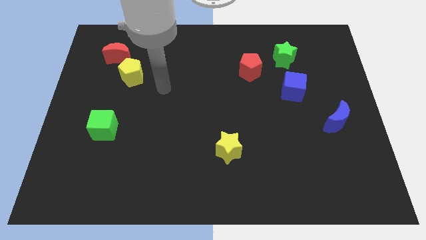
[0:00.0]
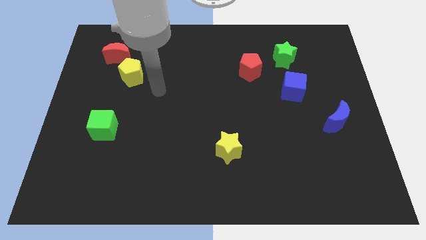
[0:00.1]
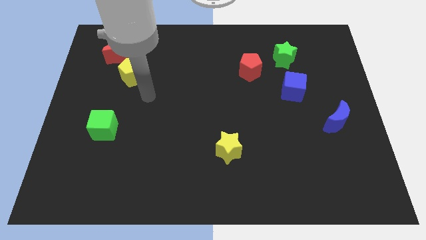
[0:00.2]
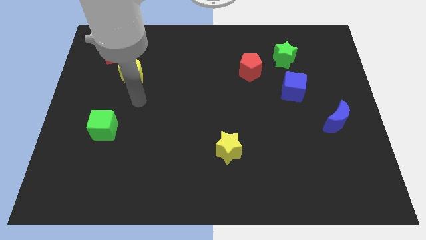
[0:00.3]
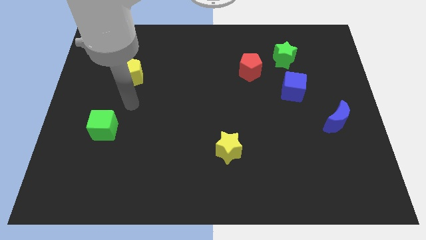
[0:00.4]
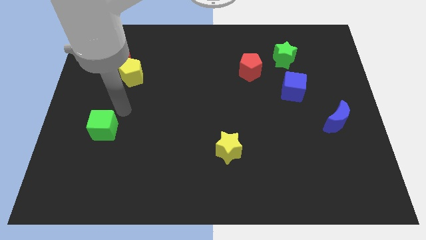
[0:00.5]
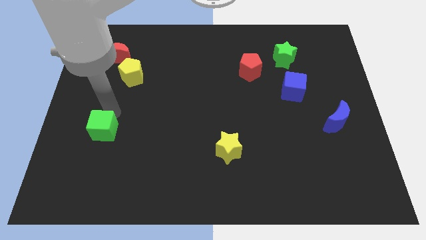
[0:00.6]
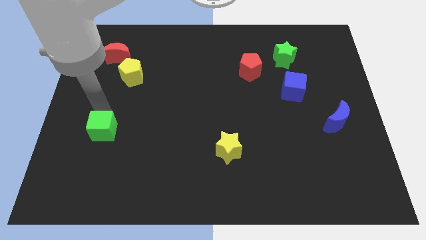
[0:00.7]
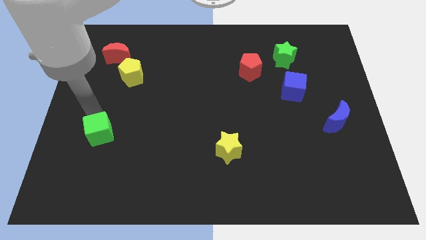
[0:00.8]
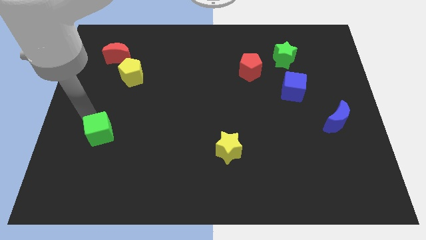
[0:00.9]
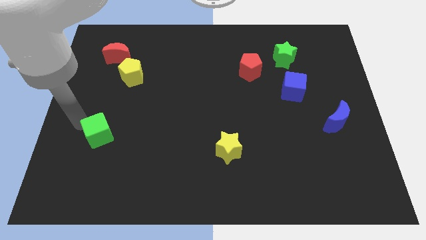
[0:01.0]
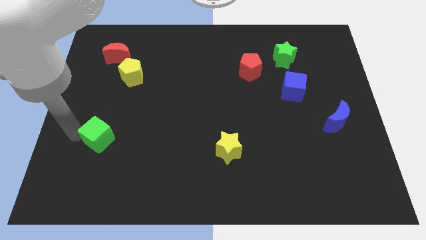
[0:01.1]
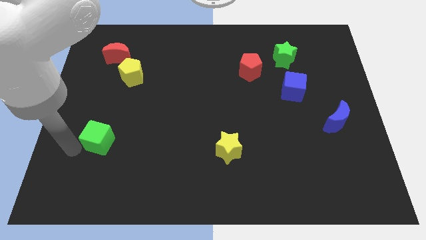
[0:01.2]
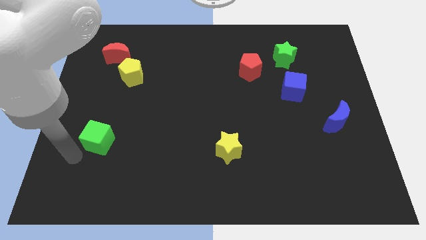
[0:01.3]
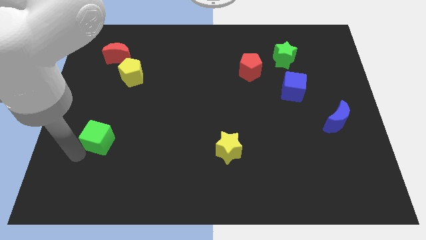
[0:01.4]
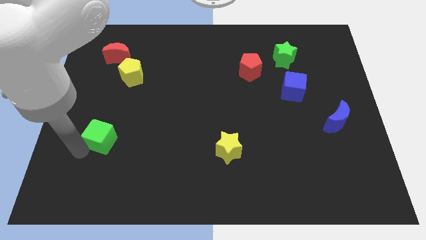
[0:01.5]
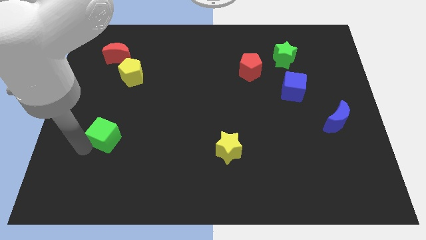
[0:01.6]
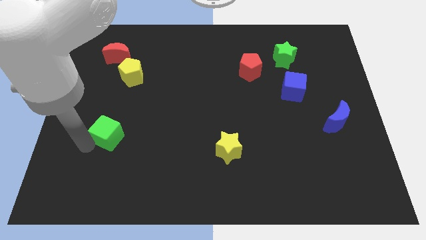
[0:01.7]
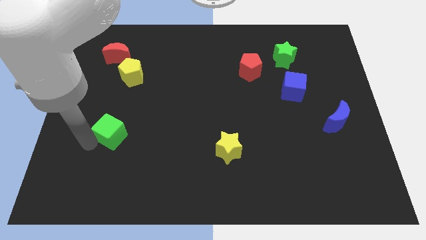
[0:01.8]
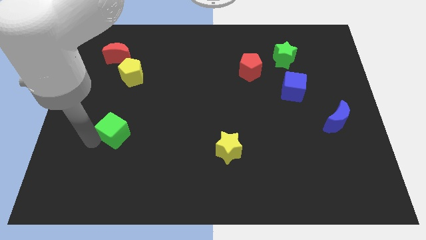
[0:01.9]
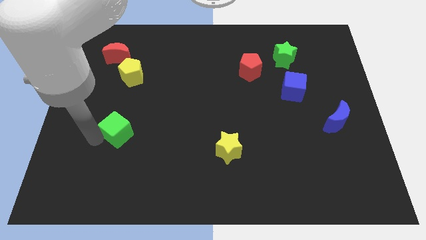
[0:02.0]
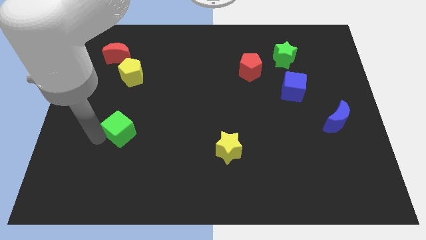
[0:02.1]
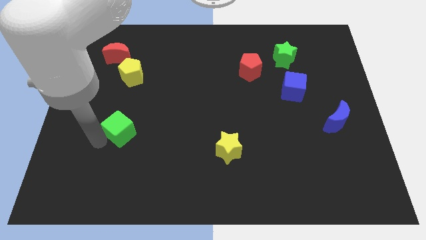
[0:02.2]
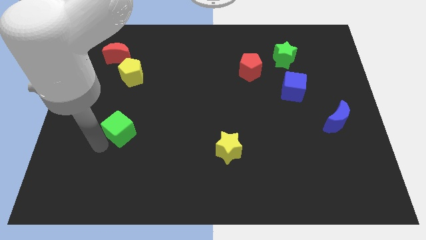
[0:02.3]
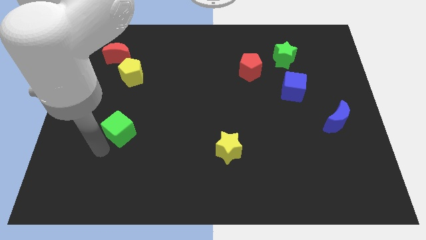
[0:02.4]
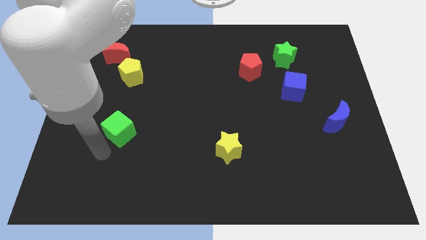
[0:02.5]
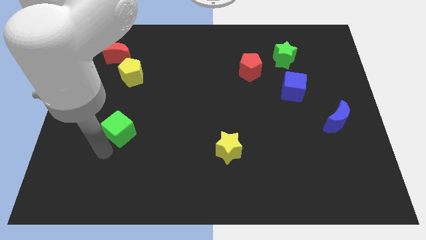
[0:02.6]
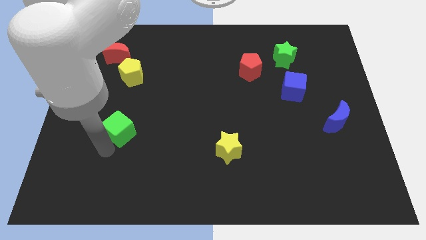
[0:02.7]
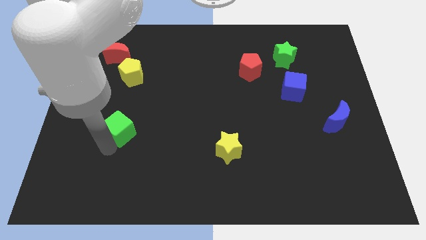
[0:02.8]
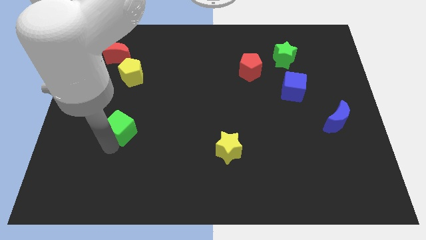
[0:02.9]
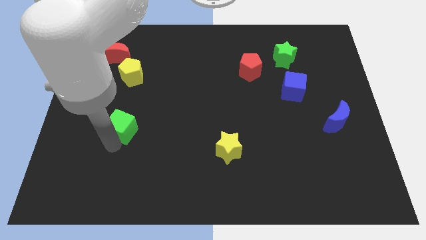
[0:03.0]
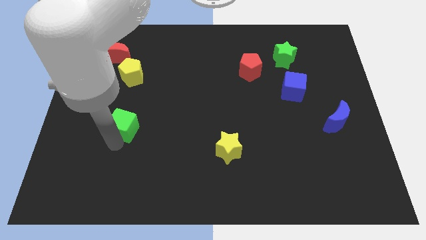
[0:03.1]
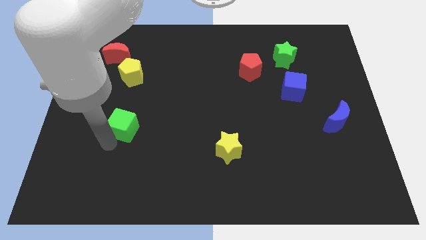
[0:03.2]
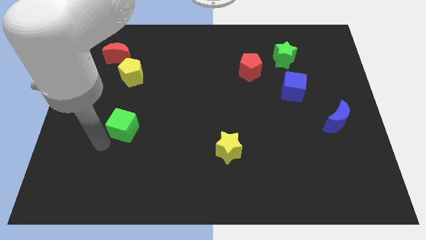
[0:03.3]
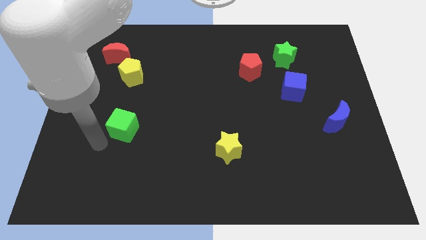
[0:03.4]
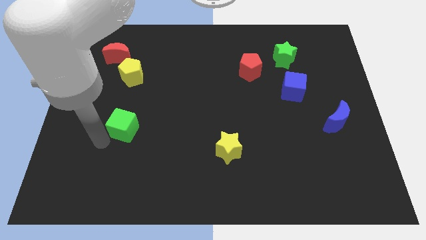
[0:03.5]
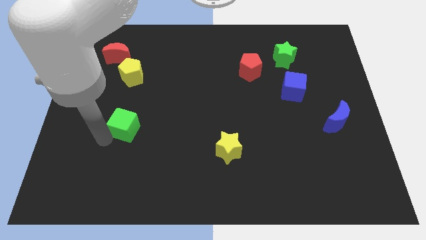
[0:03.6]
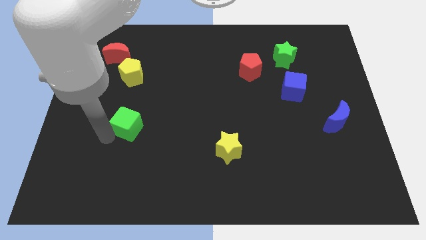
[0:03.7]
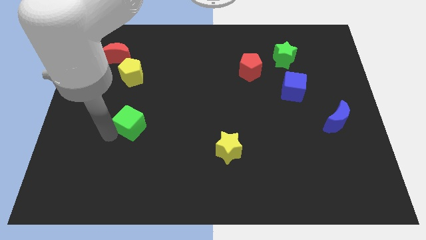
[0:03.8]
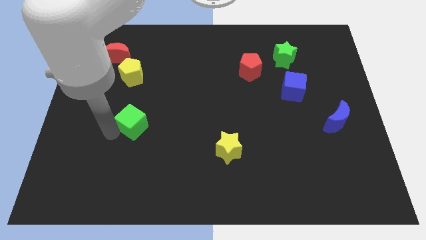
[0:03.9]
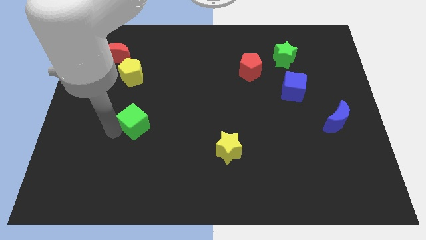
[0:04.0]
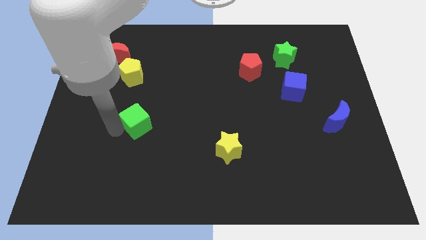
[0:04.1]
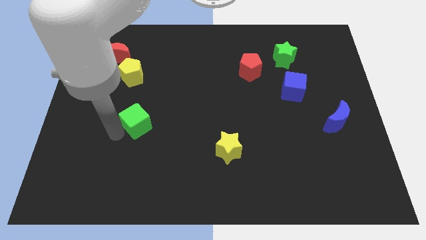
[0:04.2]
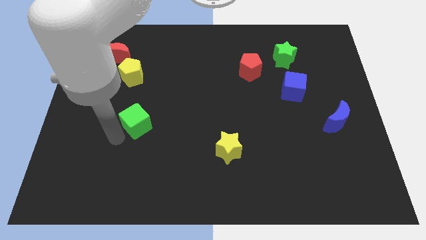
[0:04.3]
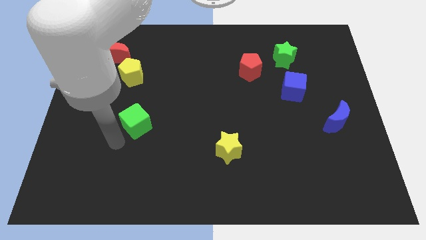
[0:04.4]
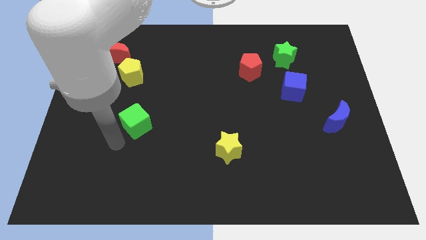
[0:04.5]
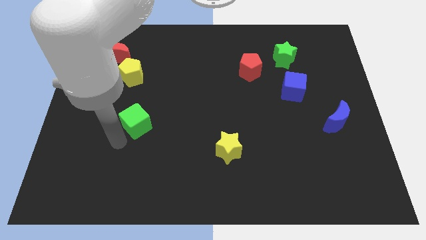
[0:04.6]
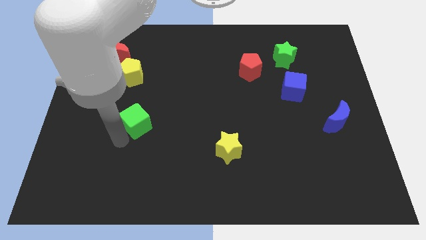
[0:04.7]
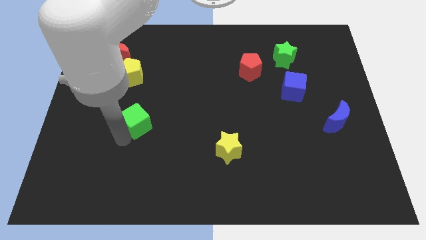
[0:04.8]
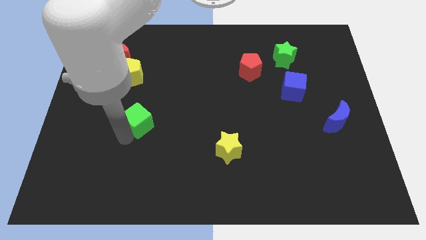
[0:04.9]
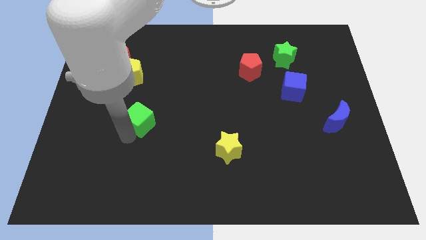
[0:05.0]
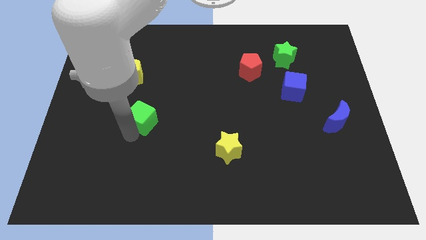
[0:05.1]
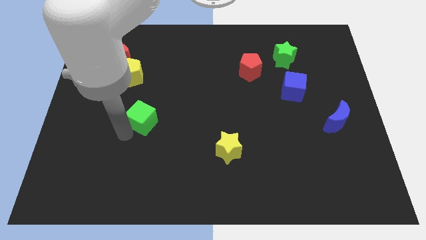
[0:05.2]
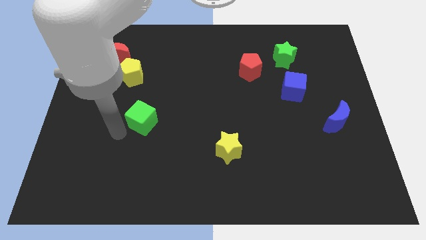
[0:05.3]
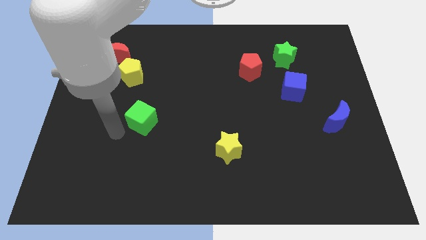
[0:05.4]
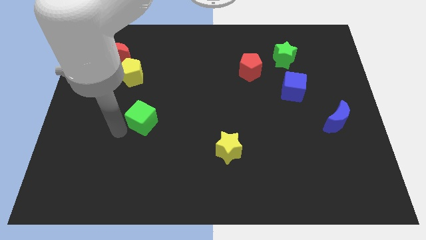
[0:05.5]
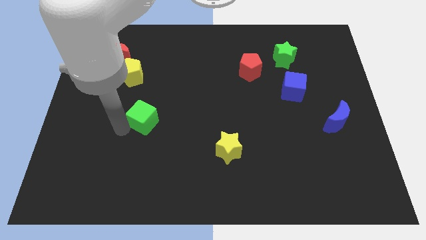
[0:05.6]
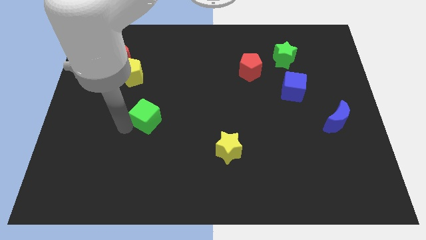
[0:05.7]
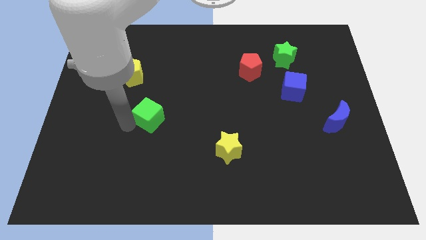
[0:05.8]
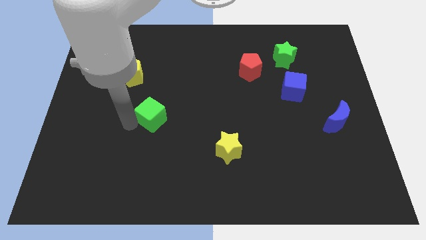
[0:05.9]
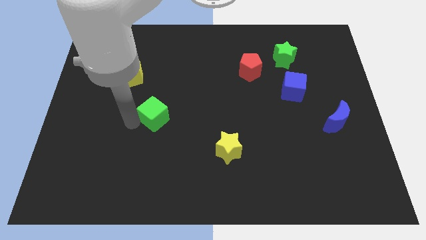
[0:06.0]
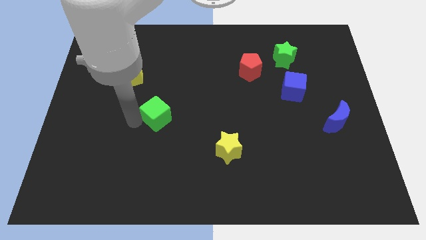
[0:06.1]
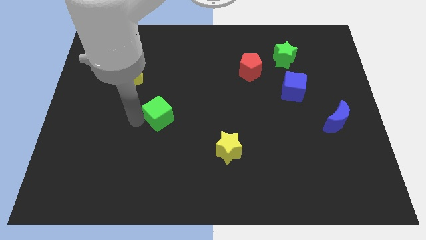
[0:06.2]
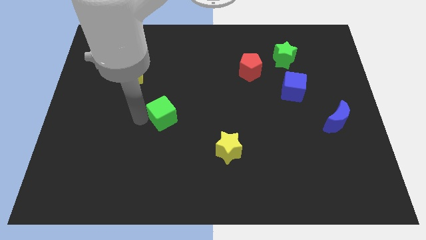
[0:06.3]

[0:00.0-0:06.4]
slide the green cube to the middle of the board
